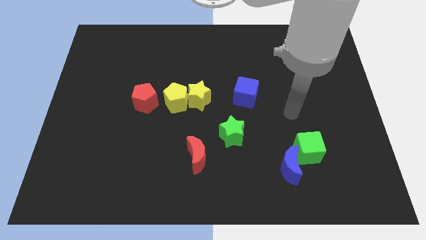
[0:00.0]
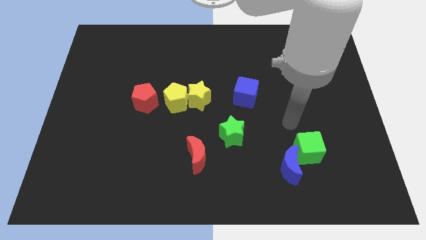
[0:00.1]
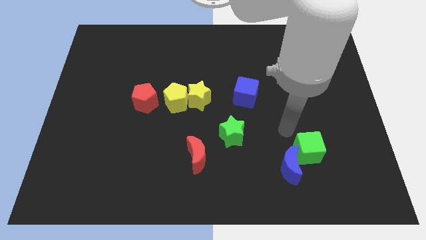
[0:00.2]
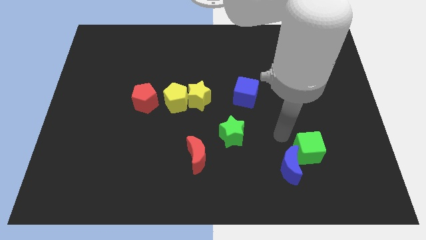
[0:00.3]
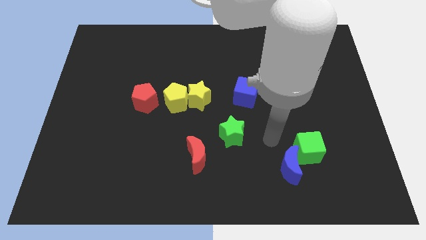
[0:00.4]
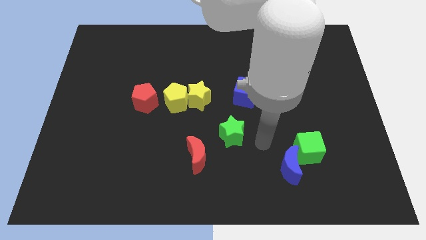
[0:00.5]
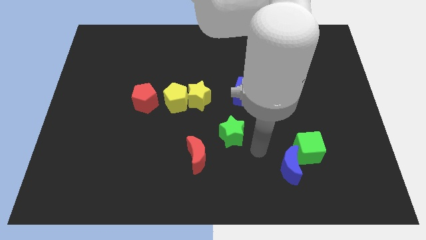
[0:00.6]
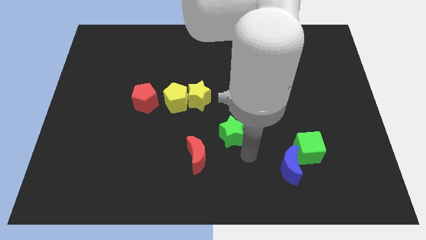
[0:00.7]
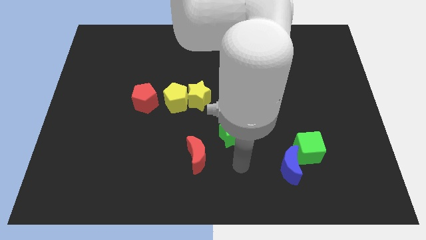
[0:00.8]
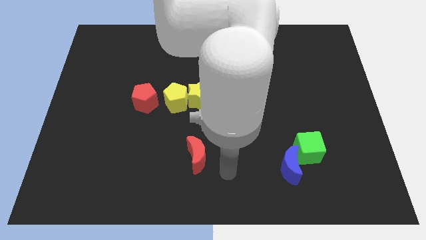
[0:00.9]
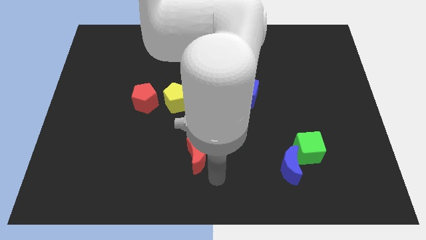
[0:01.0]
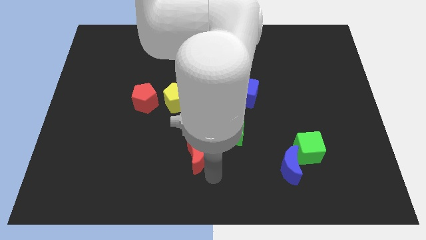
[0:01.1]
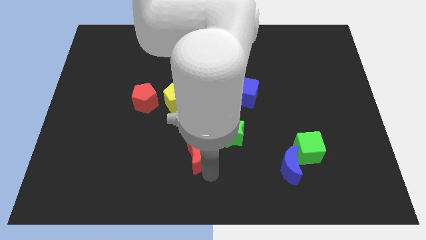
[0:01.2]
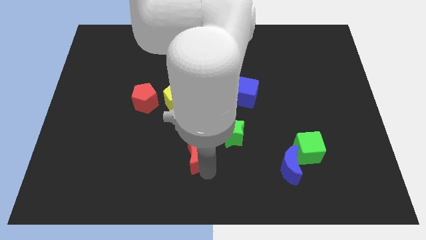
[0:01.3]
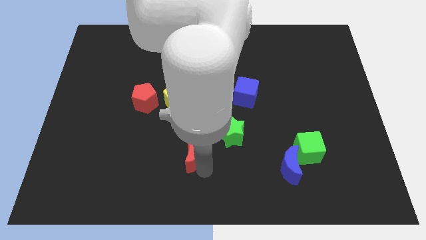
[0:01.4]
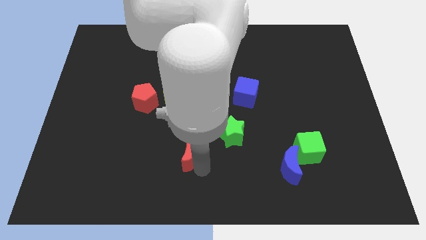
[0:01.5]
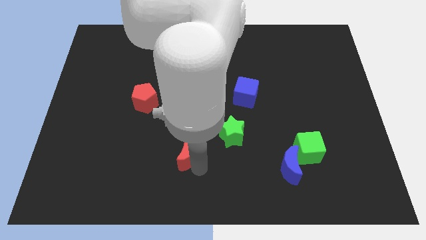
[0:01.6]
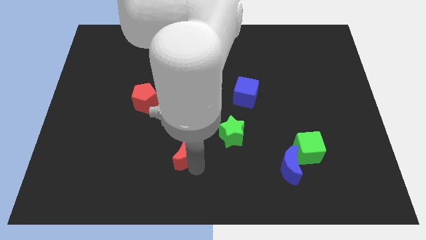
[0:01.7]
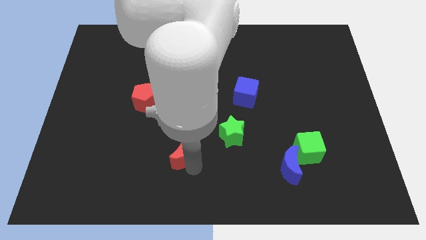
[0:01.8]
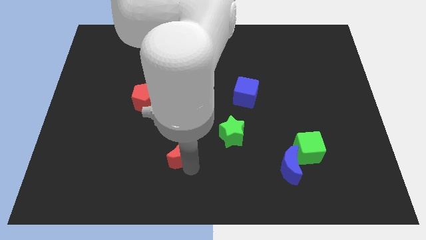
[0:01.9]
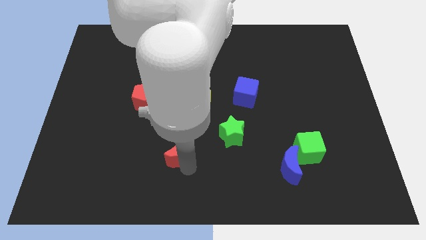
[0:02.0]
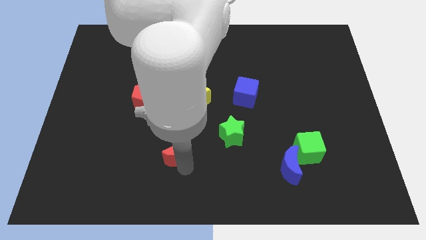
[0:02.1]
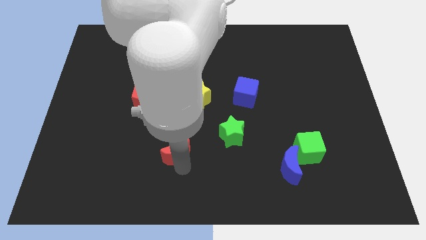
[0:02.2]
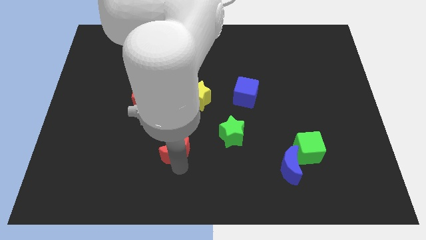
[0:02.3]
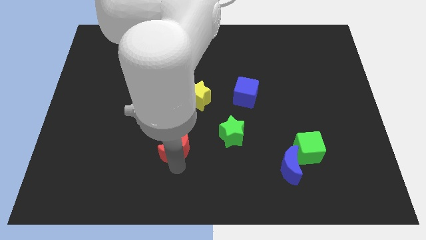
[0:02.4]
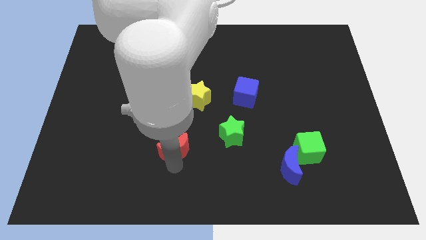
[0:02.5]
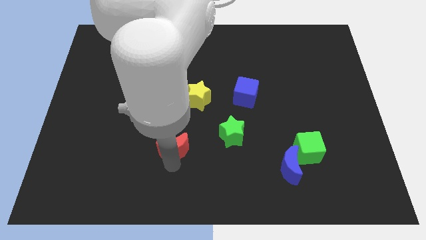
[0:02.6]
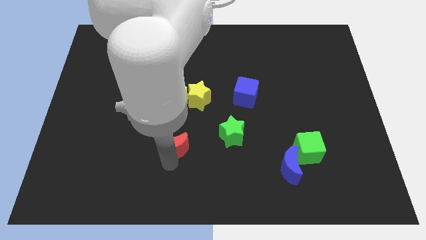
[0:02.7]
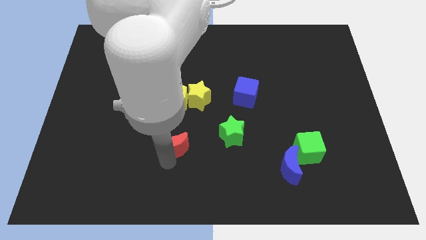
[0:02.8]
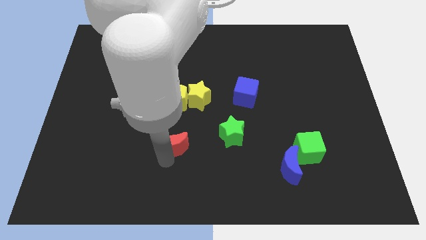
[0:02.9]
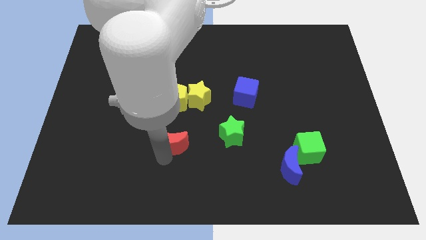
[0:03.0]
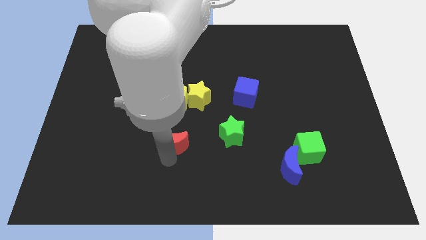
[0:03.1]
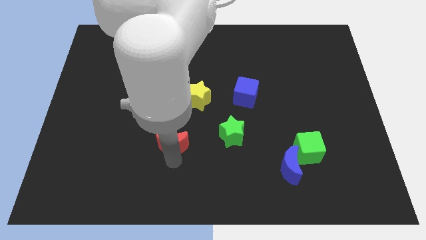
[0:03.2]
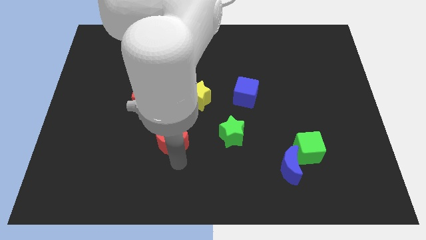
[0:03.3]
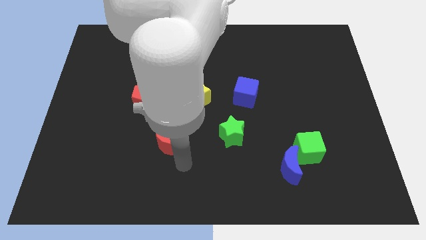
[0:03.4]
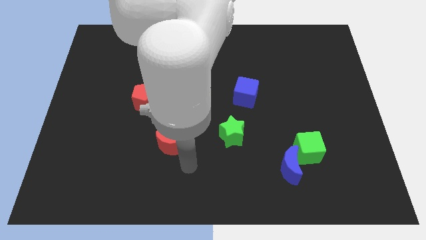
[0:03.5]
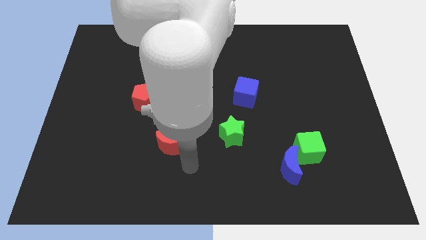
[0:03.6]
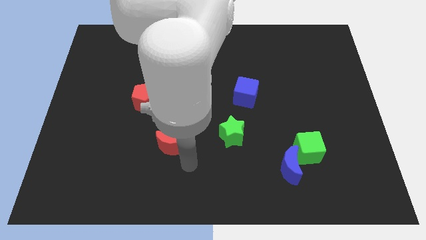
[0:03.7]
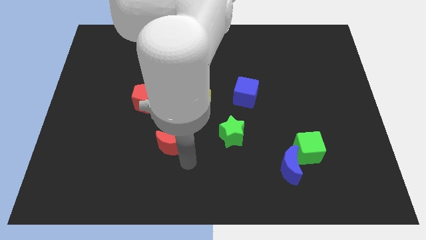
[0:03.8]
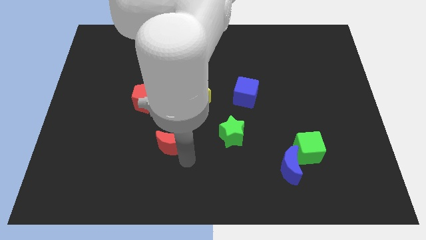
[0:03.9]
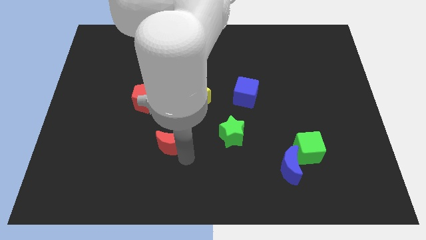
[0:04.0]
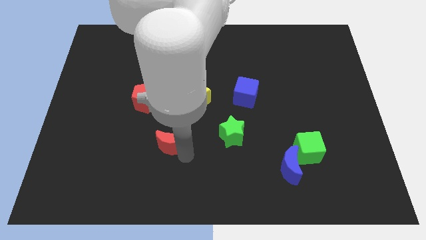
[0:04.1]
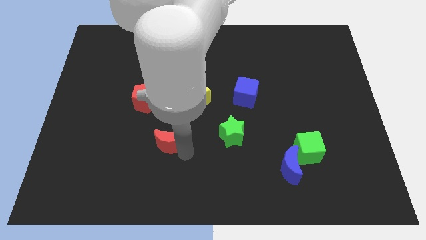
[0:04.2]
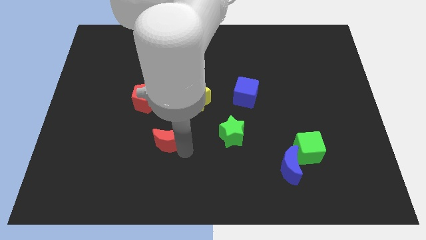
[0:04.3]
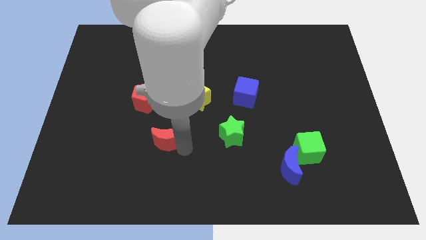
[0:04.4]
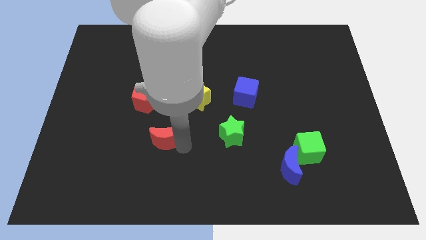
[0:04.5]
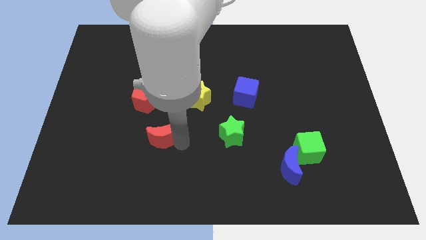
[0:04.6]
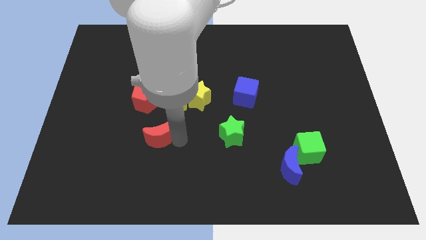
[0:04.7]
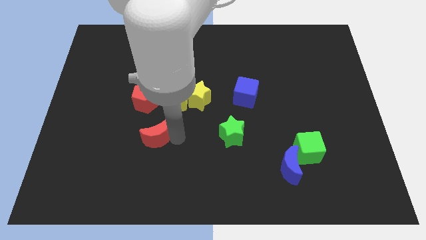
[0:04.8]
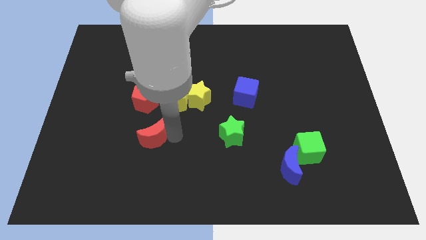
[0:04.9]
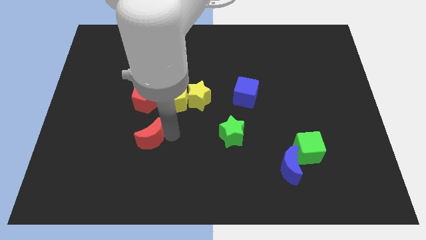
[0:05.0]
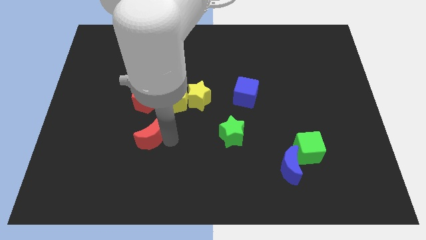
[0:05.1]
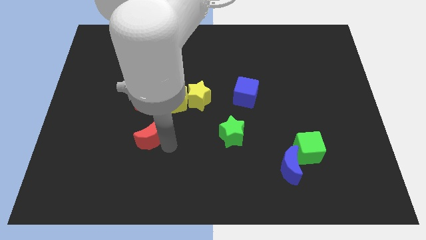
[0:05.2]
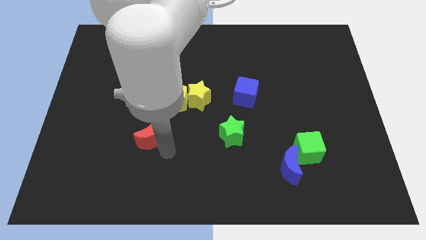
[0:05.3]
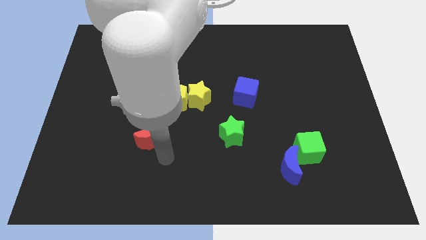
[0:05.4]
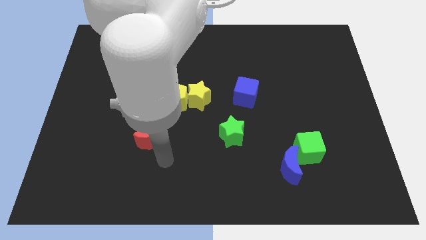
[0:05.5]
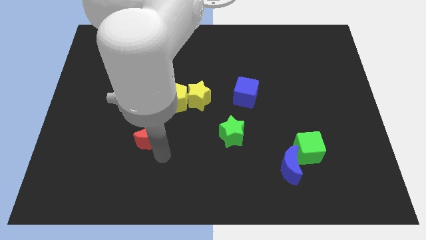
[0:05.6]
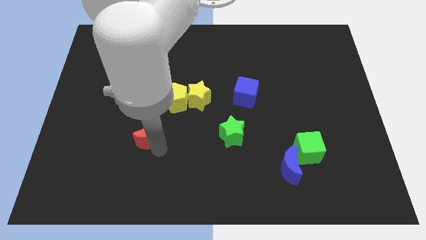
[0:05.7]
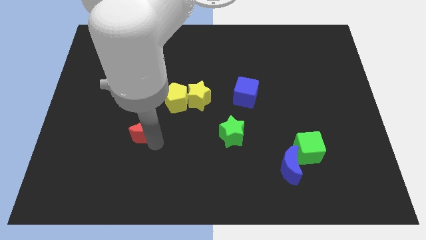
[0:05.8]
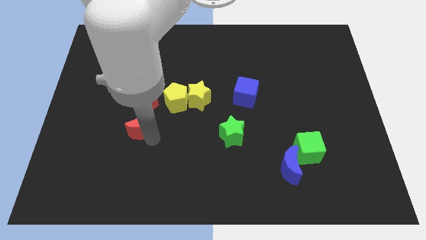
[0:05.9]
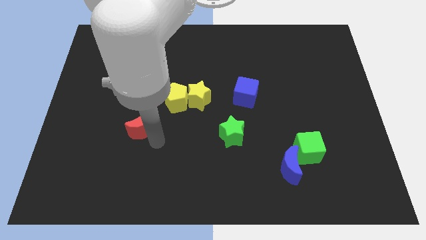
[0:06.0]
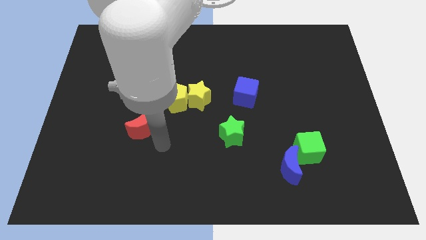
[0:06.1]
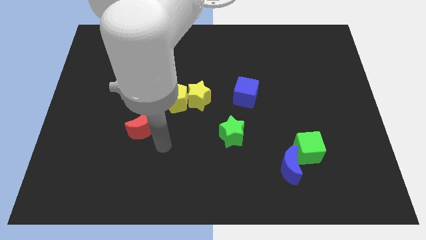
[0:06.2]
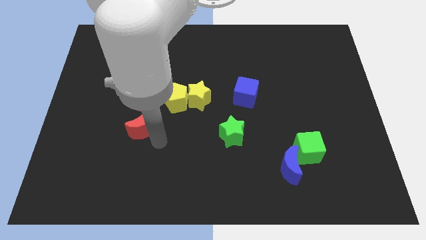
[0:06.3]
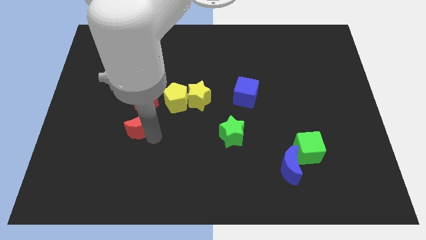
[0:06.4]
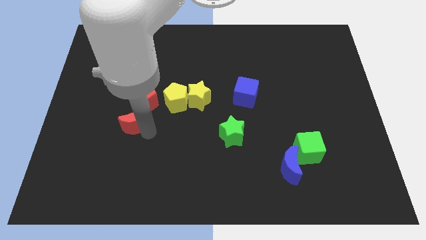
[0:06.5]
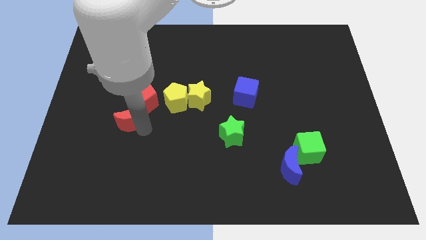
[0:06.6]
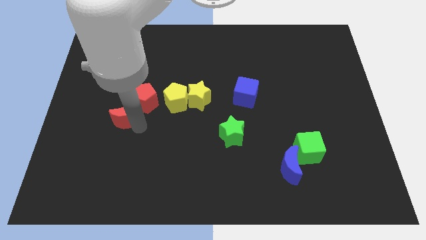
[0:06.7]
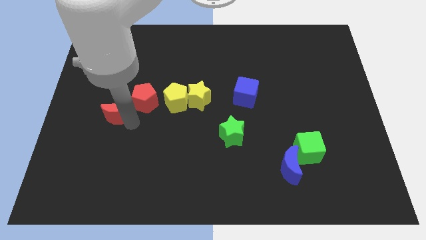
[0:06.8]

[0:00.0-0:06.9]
move the red moon upwards and then to the left

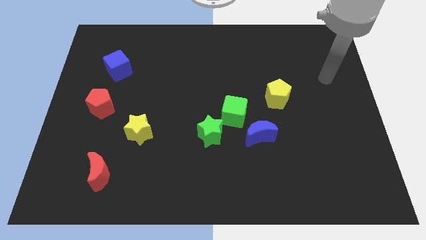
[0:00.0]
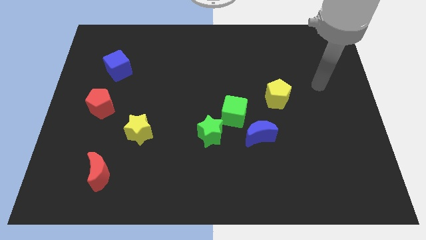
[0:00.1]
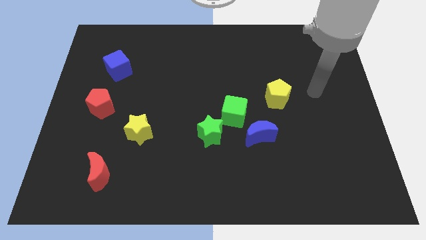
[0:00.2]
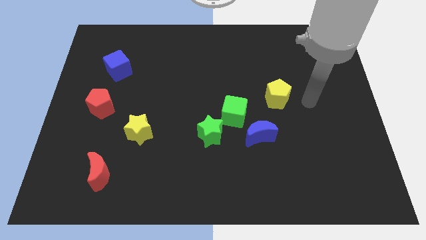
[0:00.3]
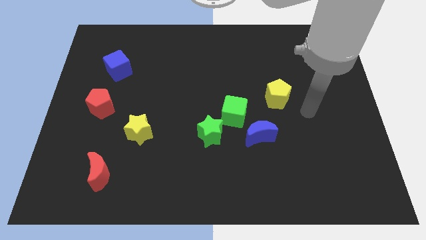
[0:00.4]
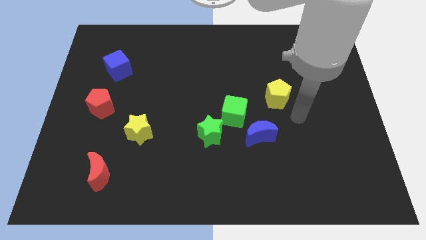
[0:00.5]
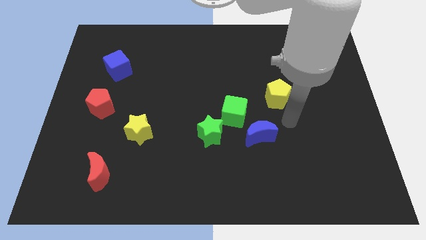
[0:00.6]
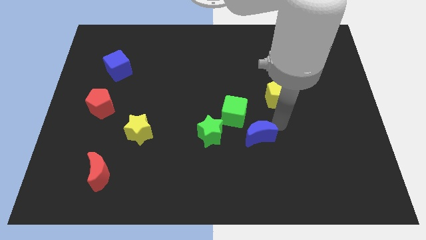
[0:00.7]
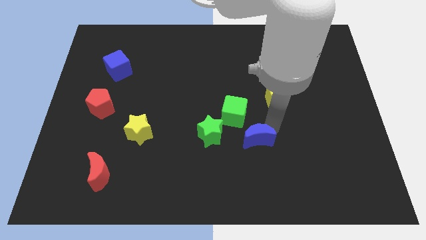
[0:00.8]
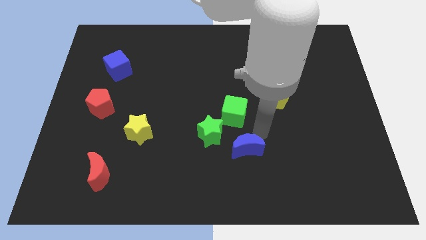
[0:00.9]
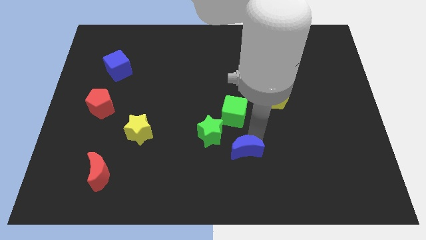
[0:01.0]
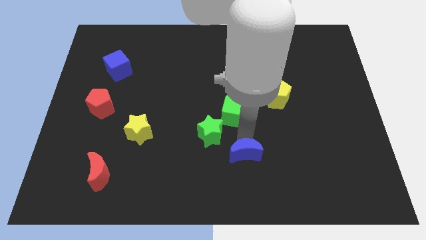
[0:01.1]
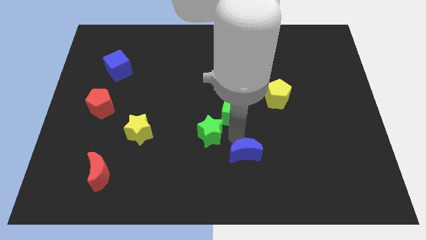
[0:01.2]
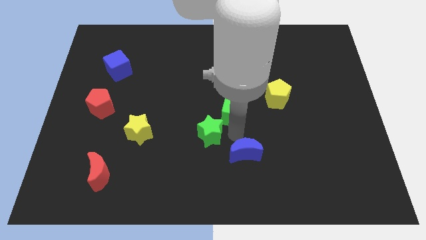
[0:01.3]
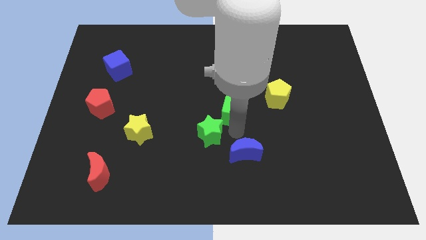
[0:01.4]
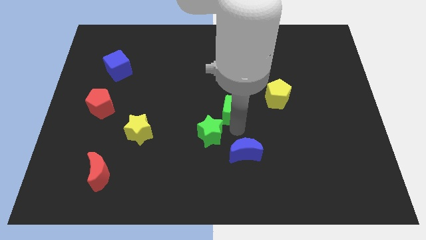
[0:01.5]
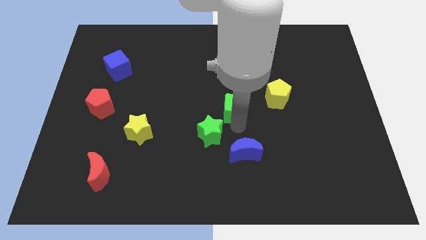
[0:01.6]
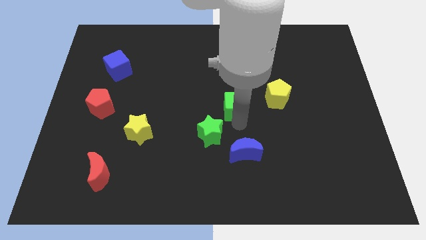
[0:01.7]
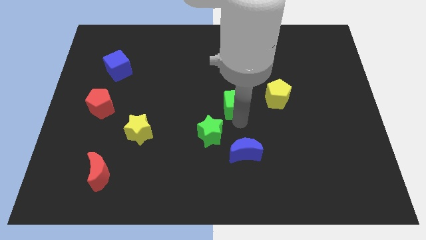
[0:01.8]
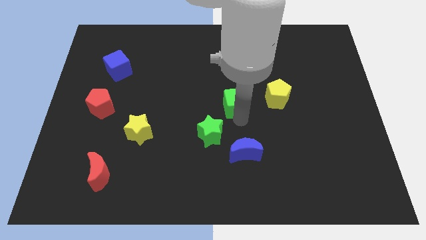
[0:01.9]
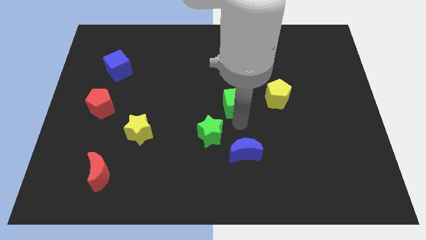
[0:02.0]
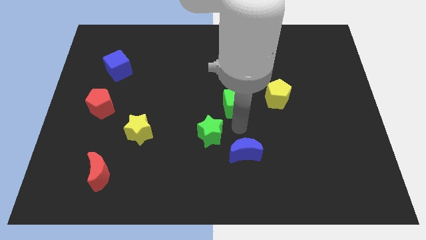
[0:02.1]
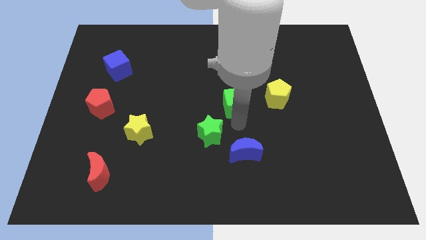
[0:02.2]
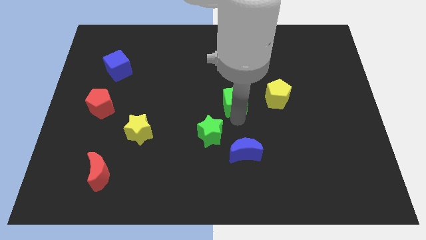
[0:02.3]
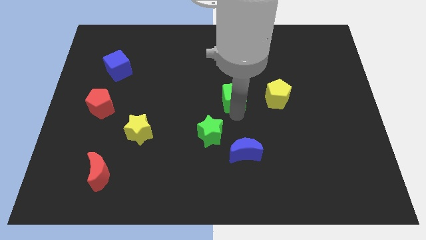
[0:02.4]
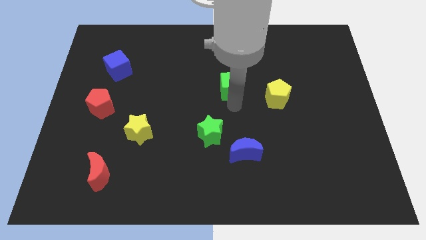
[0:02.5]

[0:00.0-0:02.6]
move the green cube upwards a little bit
